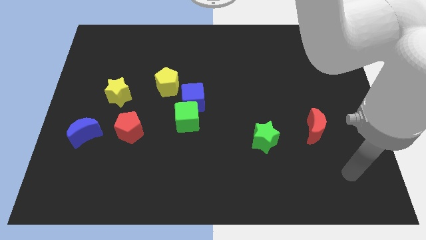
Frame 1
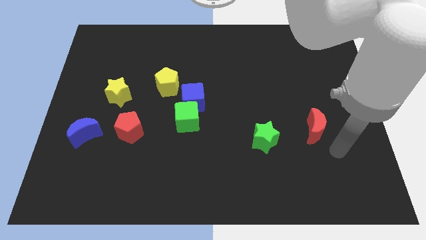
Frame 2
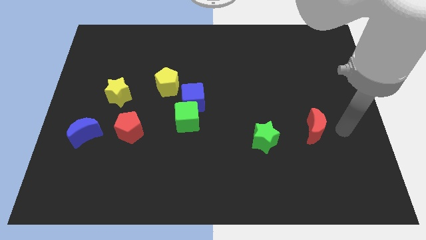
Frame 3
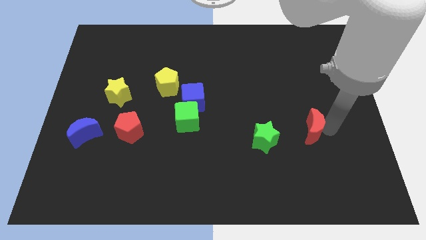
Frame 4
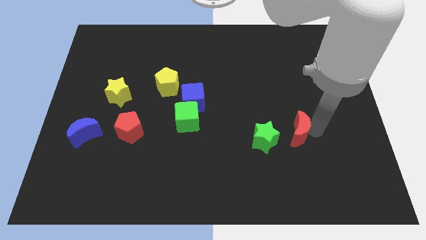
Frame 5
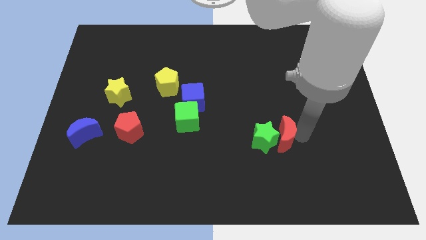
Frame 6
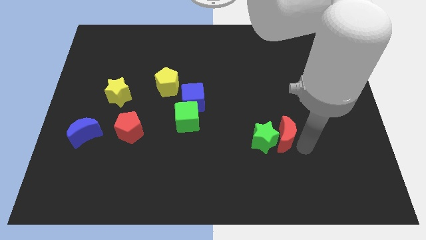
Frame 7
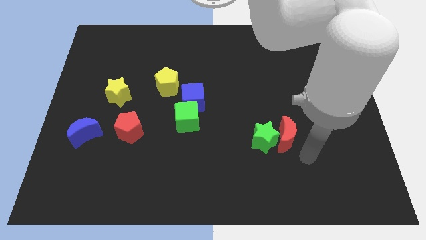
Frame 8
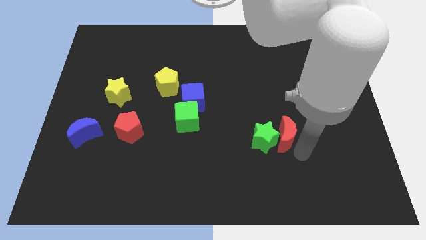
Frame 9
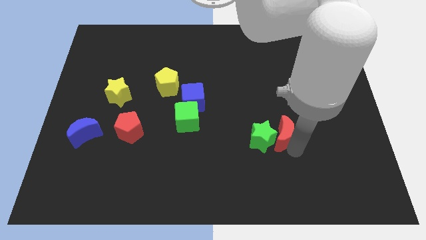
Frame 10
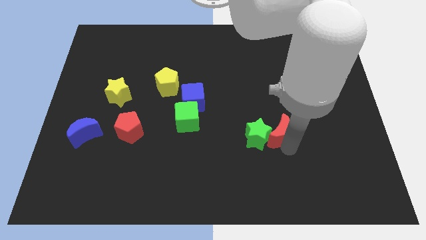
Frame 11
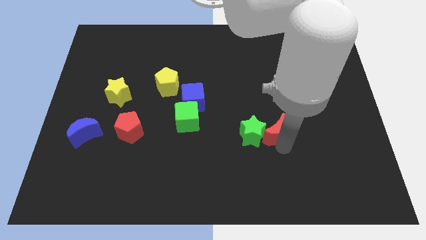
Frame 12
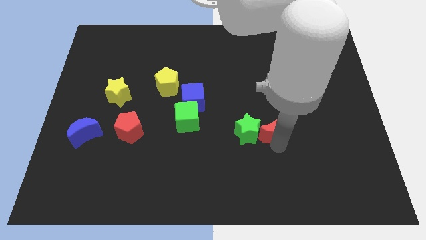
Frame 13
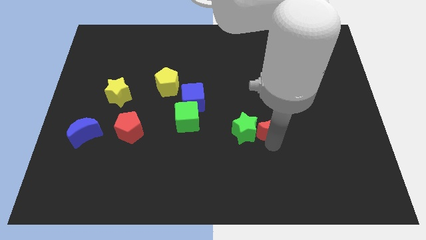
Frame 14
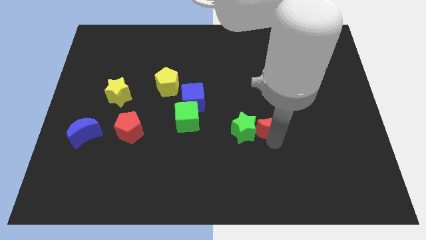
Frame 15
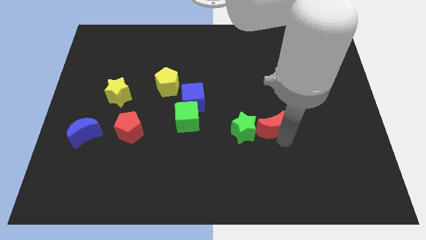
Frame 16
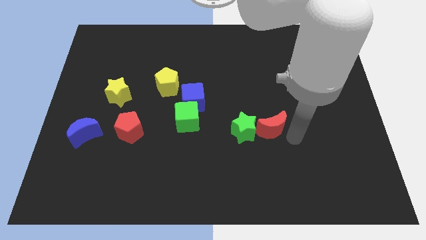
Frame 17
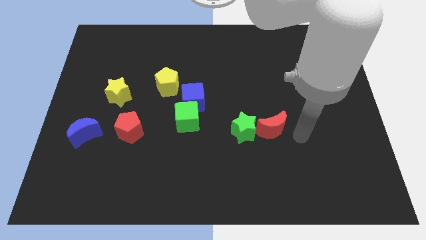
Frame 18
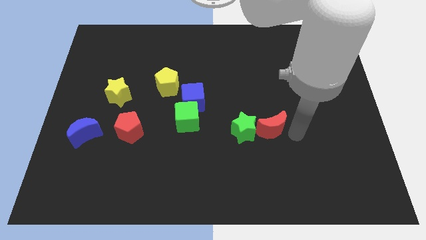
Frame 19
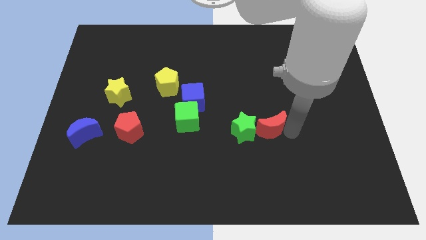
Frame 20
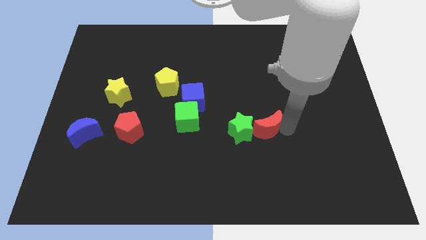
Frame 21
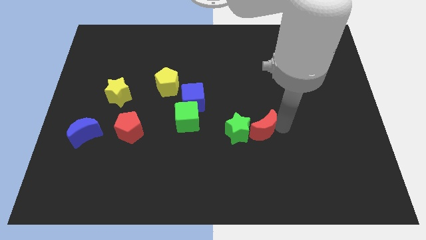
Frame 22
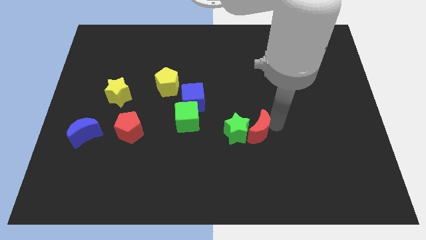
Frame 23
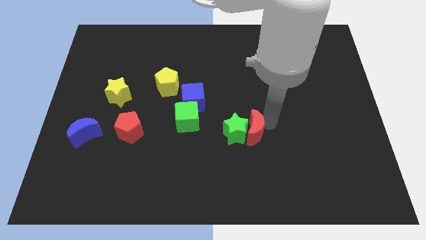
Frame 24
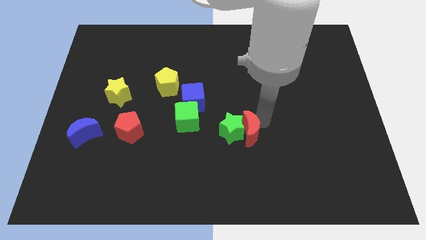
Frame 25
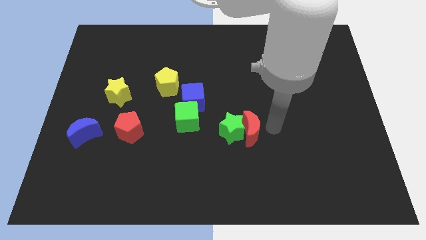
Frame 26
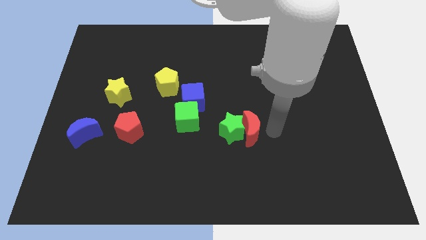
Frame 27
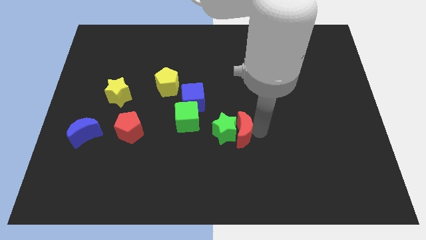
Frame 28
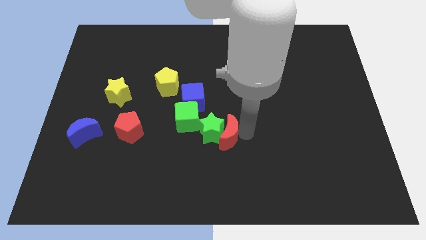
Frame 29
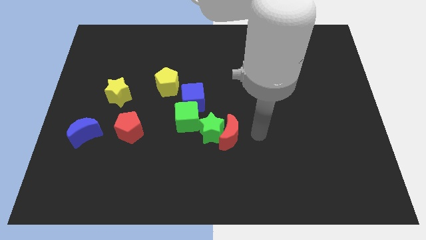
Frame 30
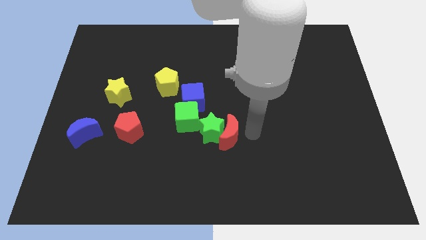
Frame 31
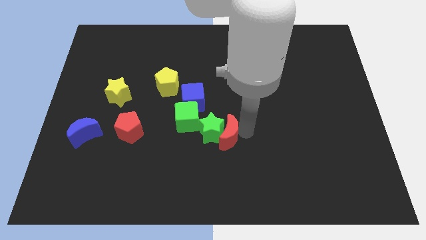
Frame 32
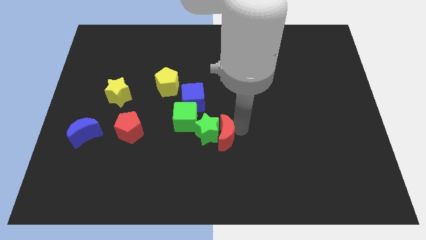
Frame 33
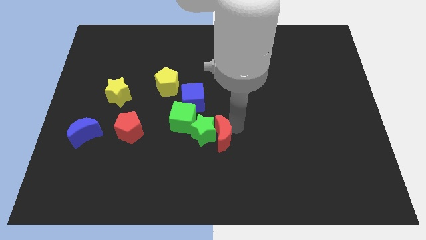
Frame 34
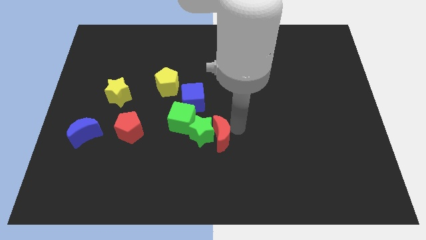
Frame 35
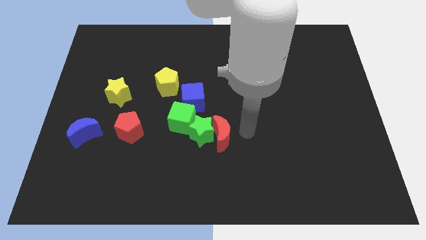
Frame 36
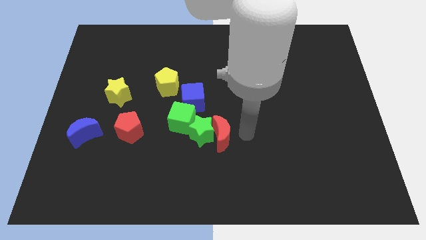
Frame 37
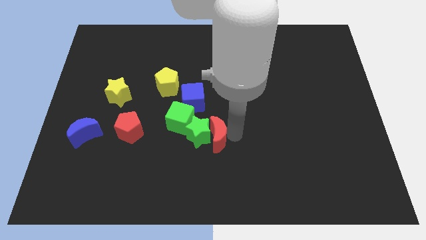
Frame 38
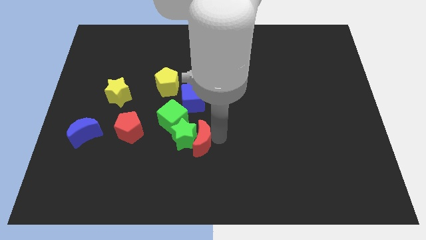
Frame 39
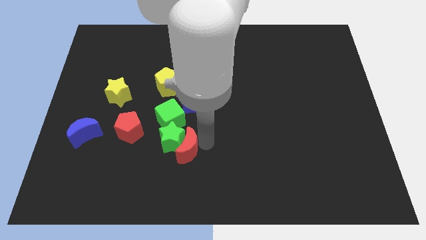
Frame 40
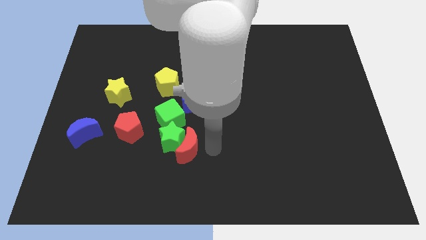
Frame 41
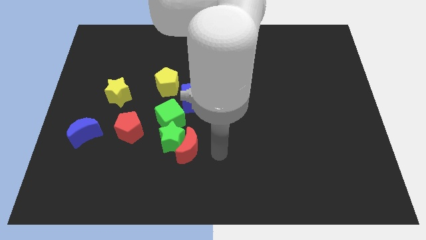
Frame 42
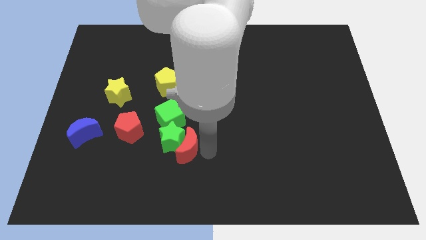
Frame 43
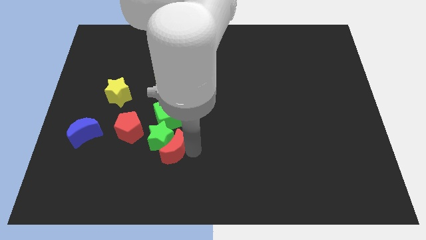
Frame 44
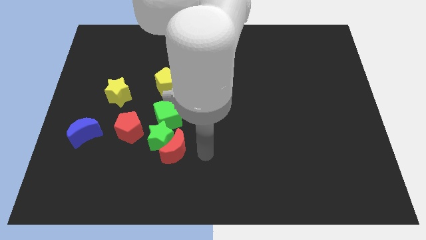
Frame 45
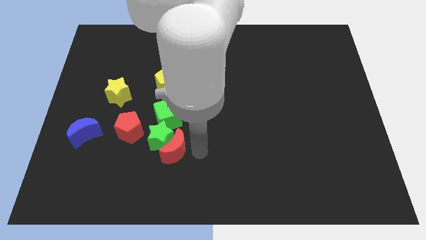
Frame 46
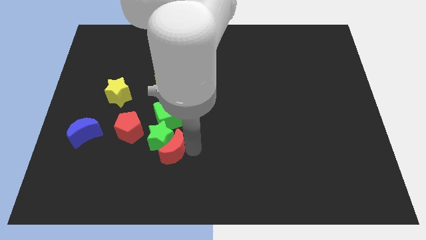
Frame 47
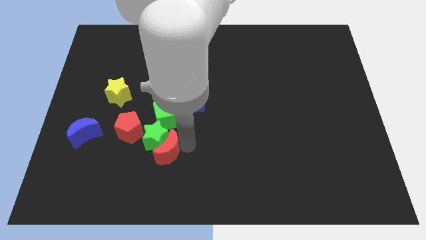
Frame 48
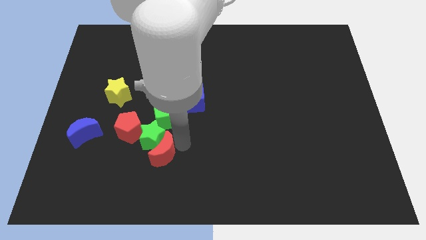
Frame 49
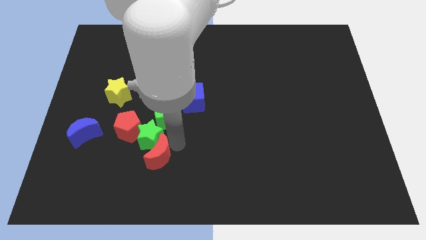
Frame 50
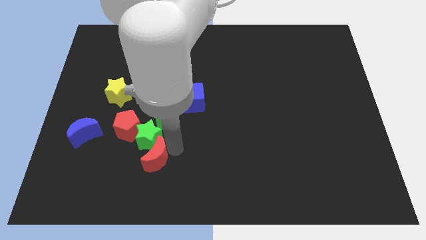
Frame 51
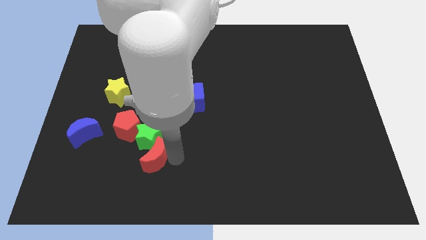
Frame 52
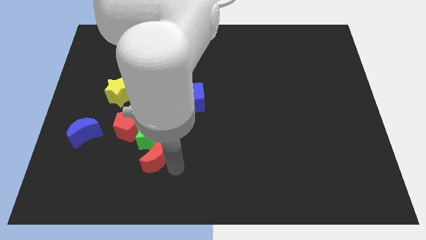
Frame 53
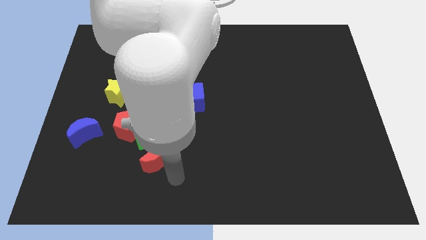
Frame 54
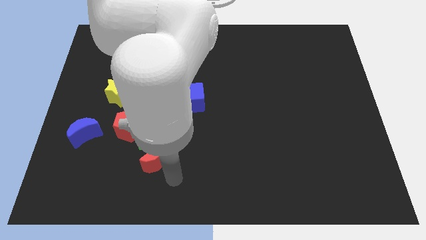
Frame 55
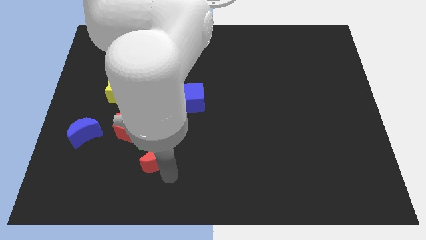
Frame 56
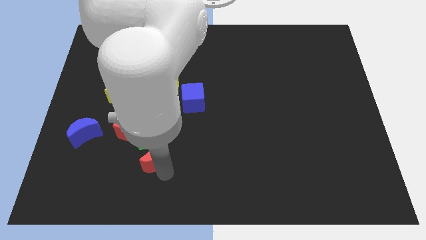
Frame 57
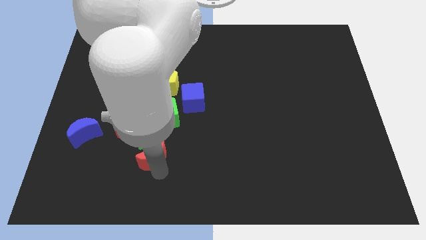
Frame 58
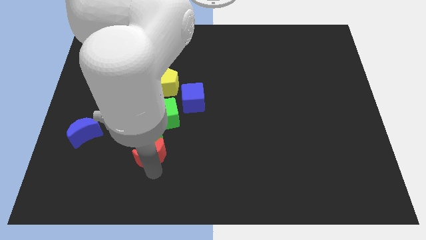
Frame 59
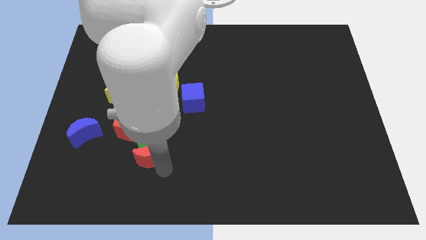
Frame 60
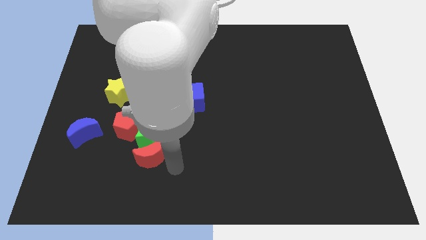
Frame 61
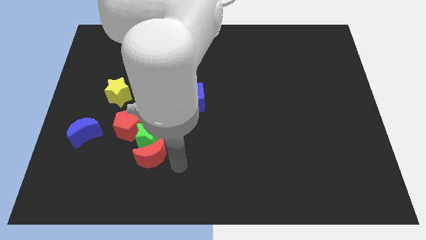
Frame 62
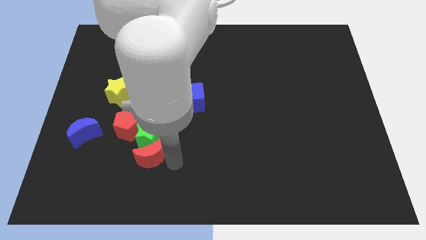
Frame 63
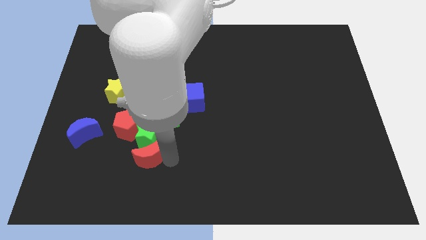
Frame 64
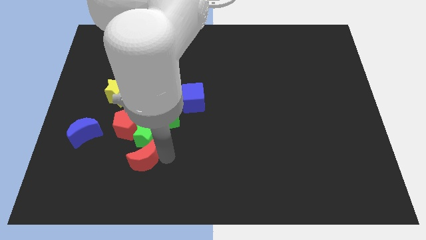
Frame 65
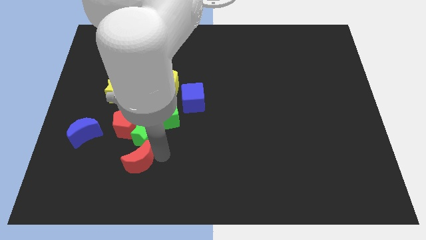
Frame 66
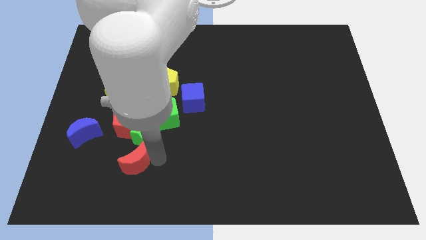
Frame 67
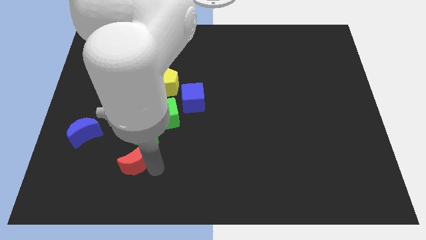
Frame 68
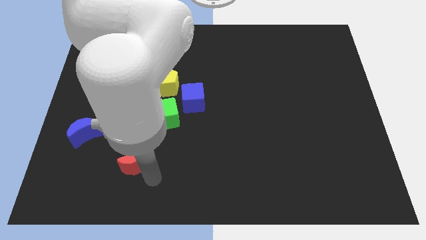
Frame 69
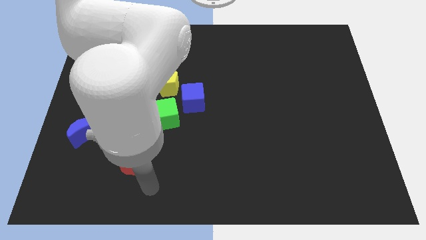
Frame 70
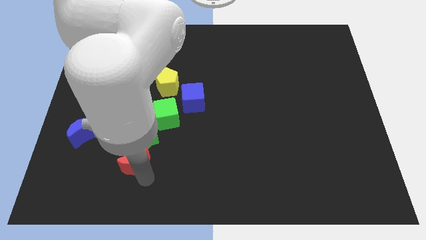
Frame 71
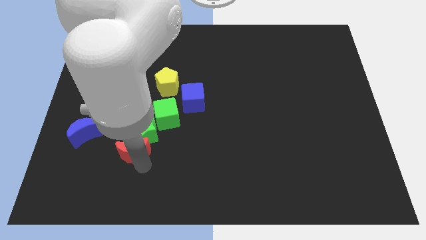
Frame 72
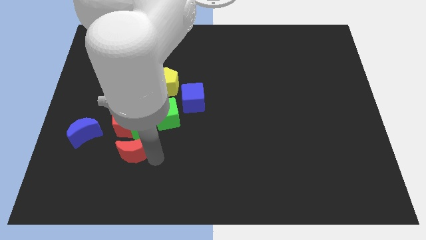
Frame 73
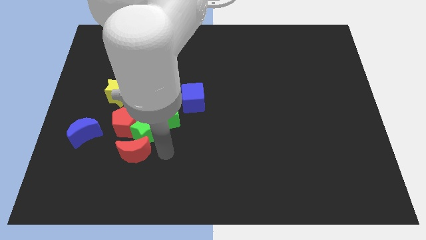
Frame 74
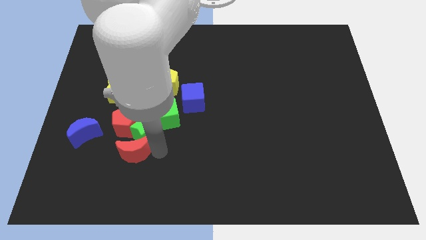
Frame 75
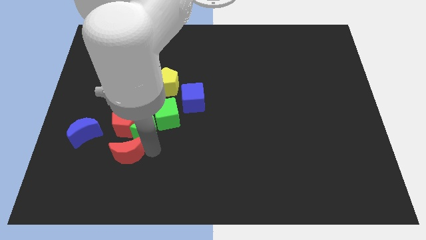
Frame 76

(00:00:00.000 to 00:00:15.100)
move the red moon to the bottom right side of the blue moon
